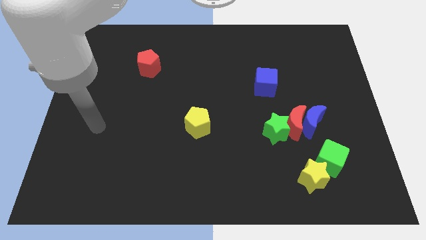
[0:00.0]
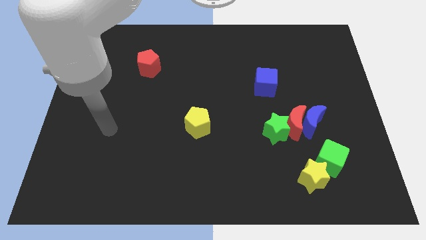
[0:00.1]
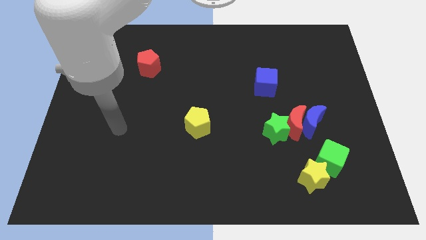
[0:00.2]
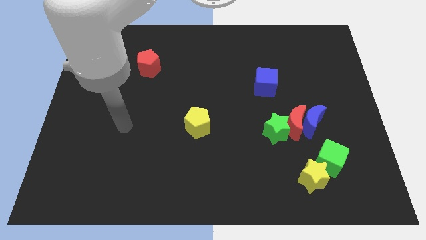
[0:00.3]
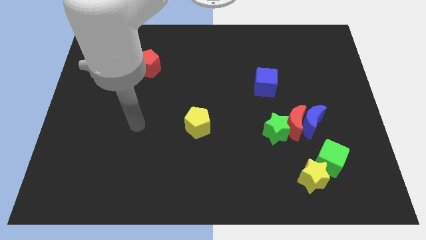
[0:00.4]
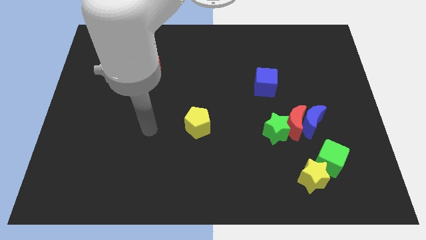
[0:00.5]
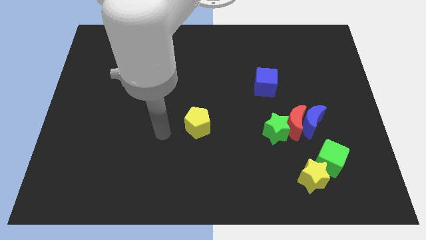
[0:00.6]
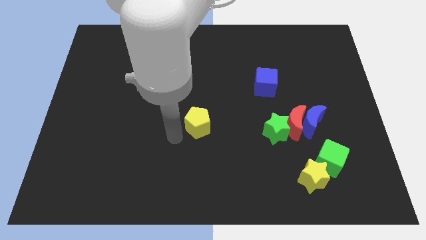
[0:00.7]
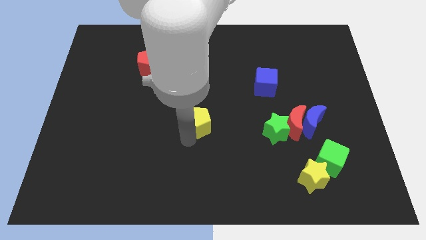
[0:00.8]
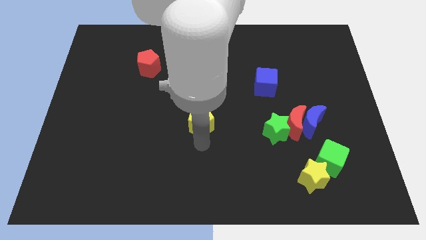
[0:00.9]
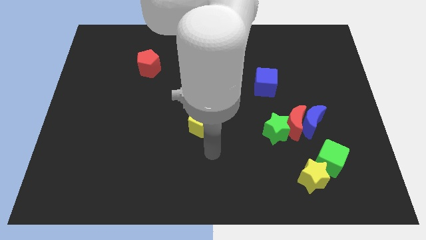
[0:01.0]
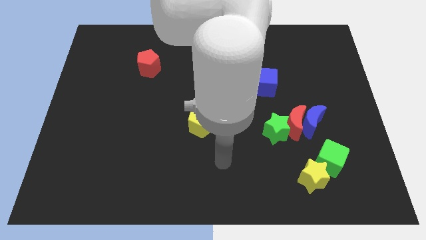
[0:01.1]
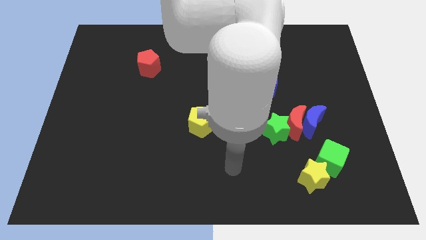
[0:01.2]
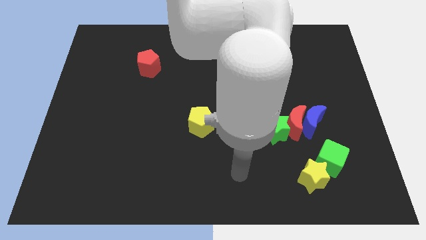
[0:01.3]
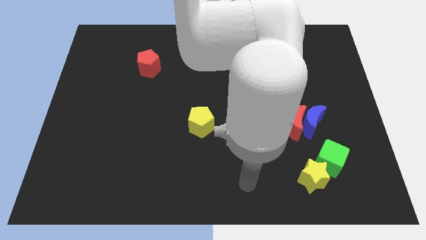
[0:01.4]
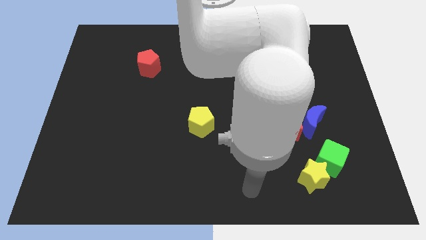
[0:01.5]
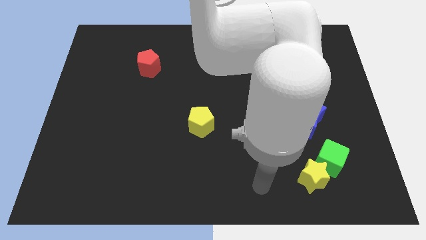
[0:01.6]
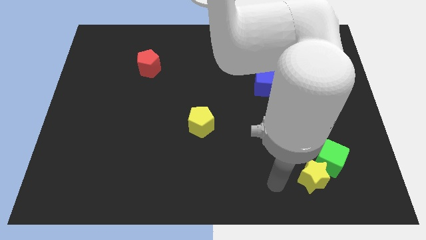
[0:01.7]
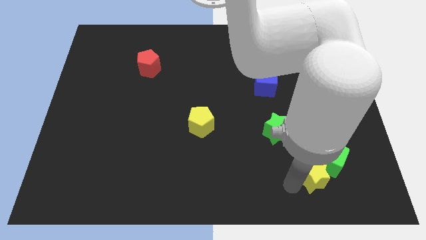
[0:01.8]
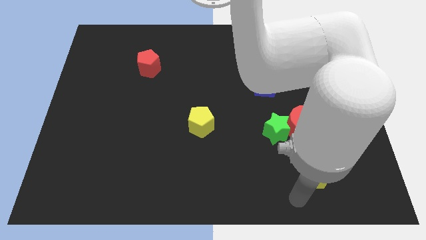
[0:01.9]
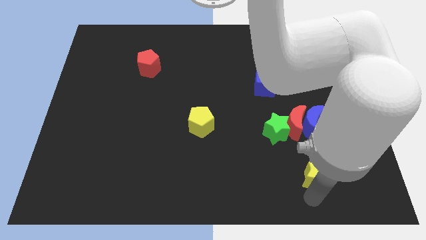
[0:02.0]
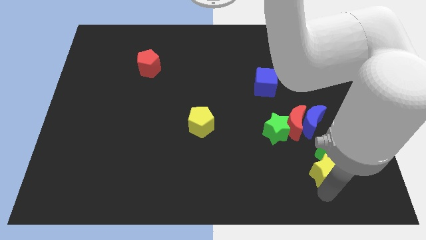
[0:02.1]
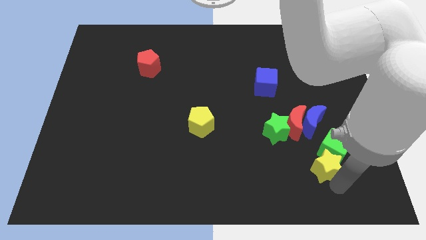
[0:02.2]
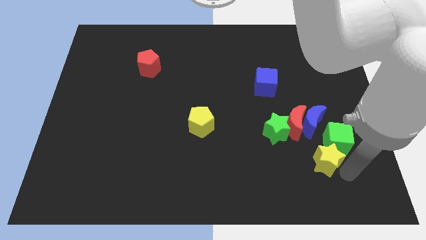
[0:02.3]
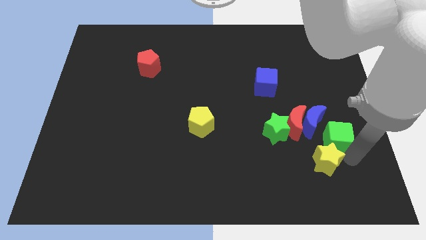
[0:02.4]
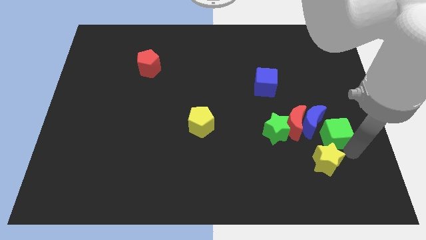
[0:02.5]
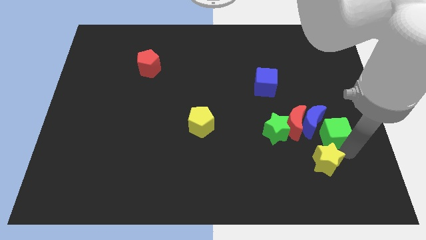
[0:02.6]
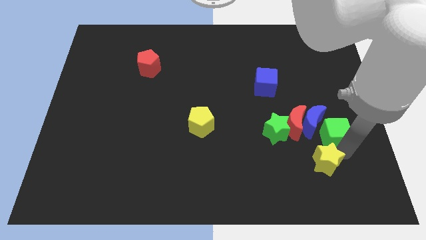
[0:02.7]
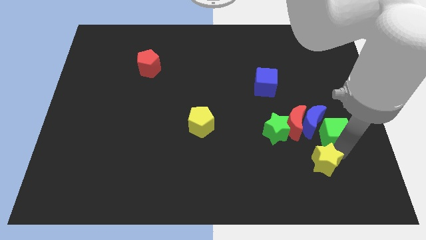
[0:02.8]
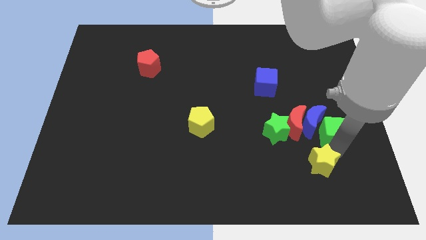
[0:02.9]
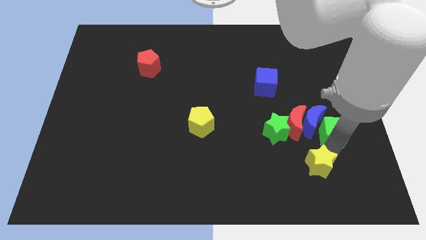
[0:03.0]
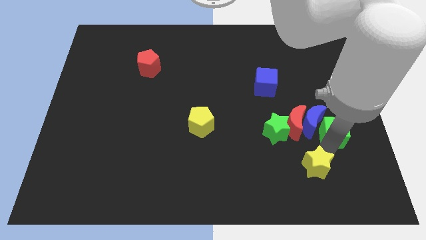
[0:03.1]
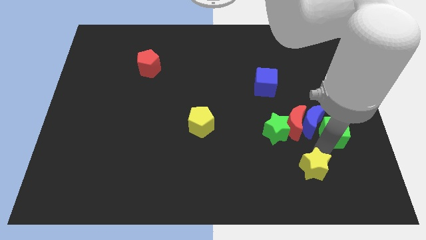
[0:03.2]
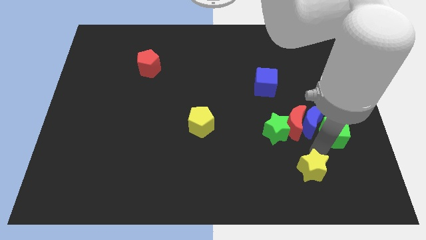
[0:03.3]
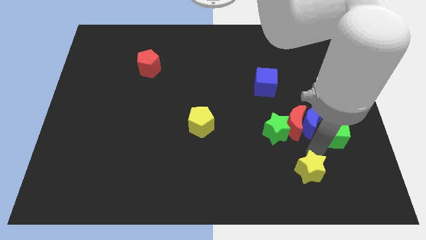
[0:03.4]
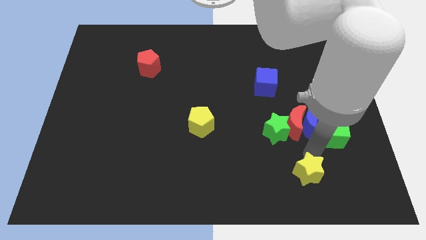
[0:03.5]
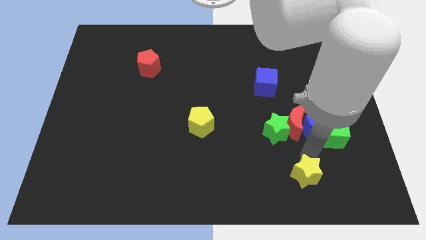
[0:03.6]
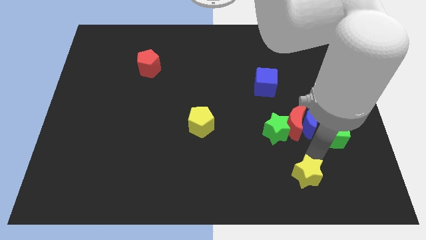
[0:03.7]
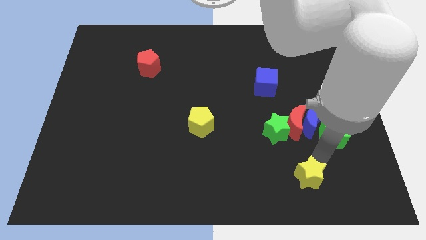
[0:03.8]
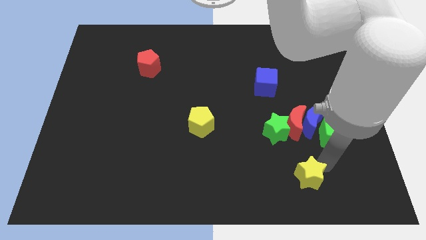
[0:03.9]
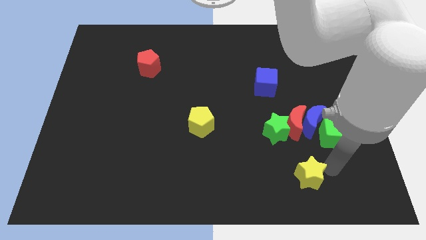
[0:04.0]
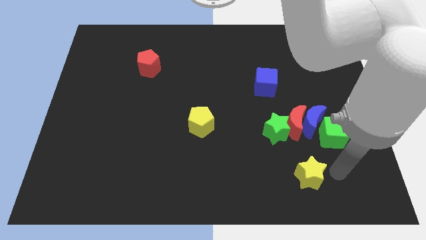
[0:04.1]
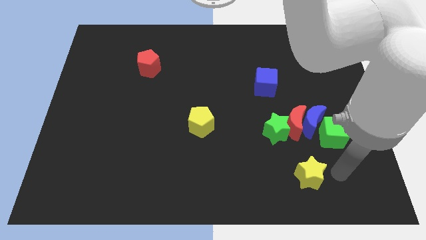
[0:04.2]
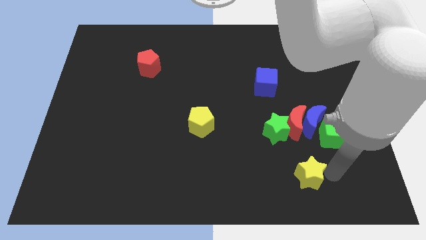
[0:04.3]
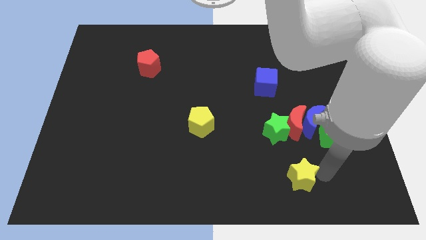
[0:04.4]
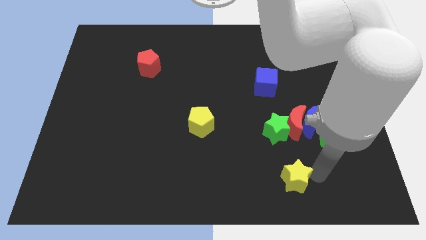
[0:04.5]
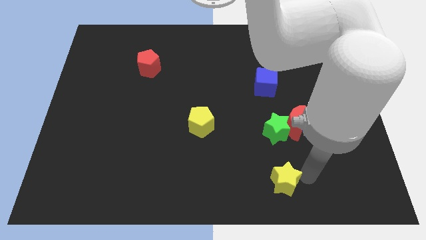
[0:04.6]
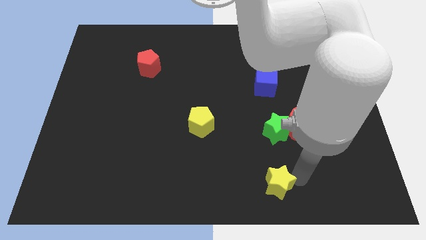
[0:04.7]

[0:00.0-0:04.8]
slide the yellow star a little to the left

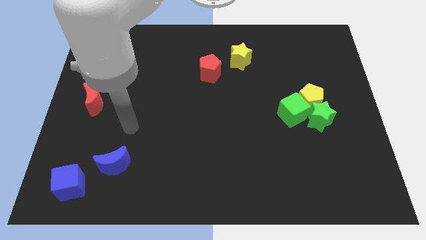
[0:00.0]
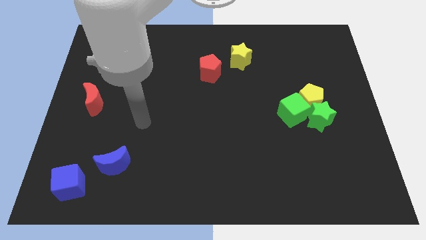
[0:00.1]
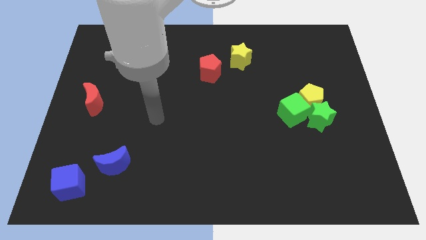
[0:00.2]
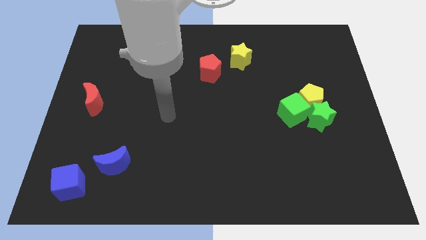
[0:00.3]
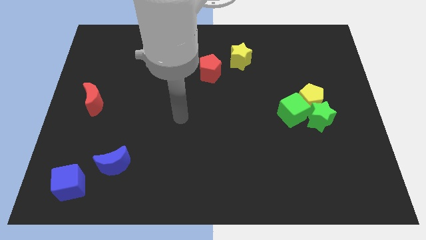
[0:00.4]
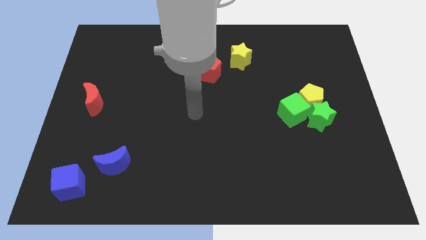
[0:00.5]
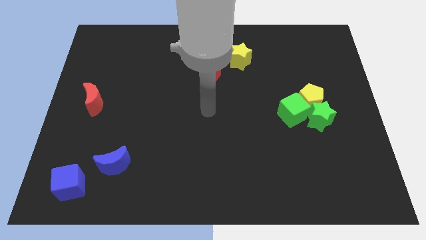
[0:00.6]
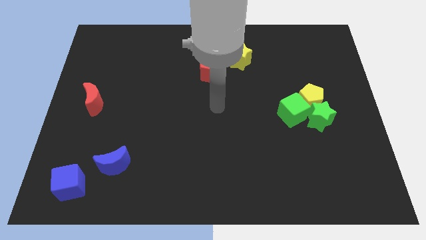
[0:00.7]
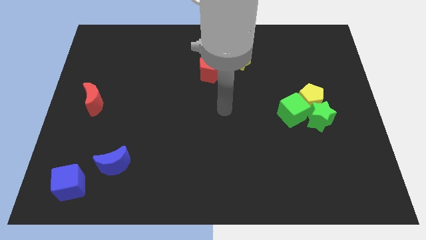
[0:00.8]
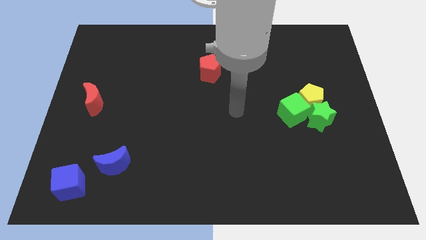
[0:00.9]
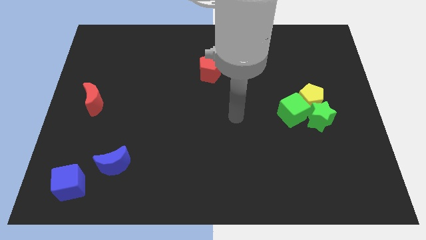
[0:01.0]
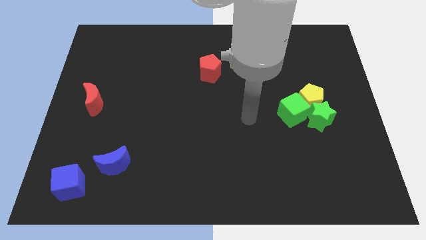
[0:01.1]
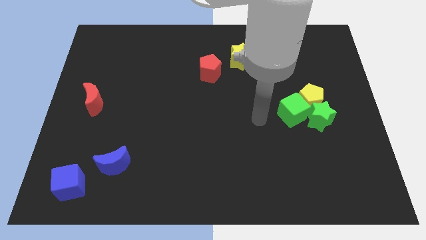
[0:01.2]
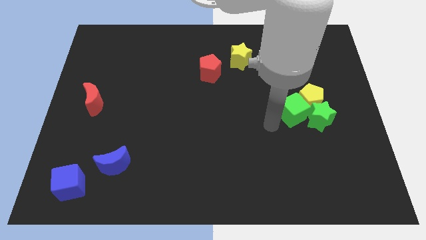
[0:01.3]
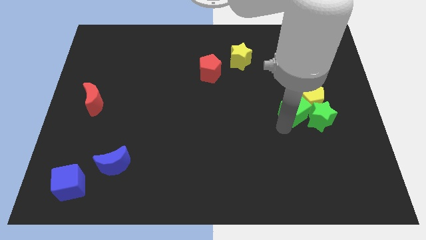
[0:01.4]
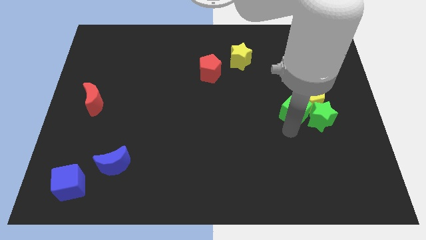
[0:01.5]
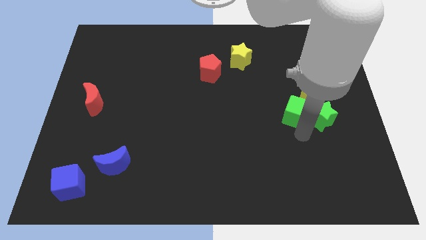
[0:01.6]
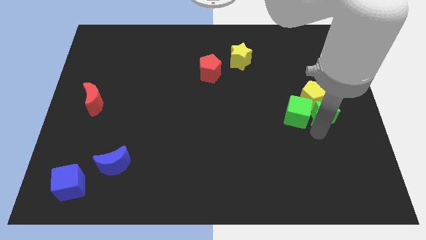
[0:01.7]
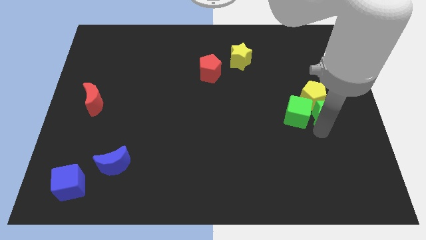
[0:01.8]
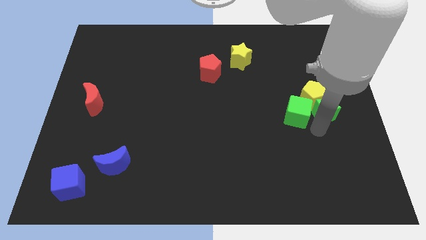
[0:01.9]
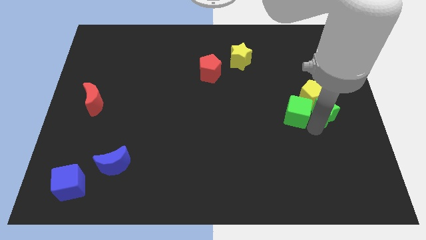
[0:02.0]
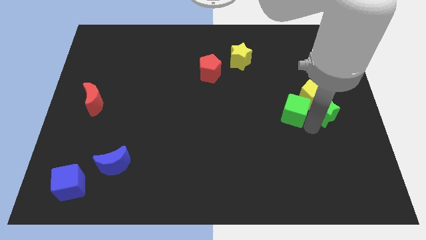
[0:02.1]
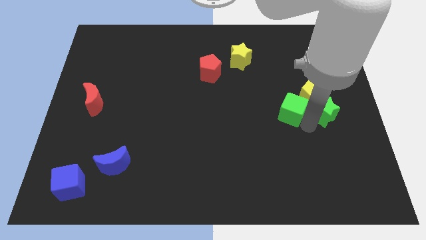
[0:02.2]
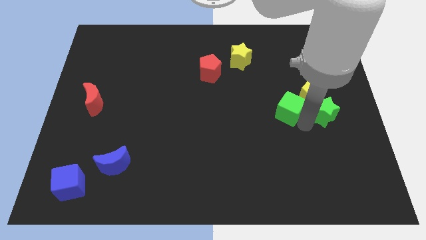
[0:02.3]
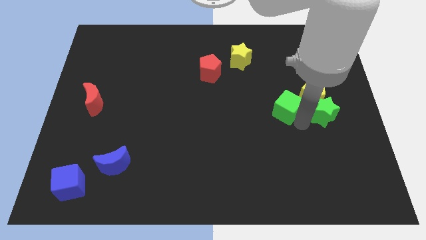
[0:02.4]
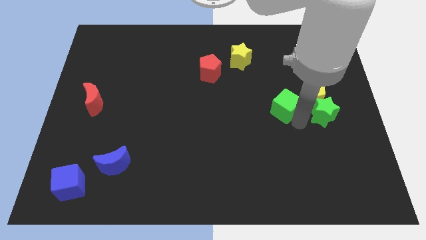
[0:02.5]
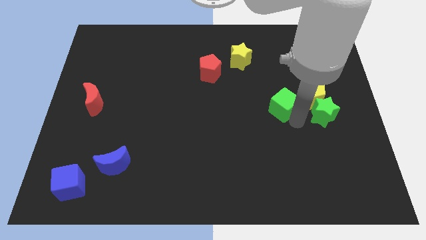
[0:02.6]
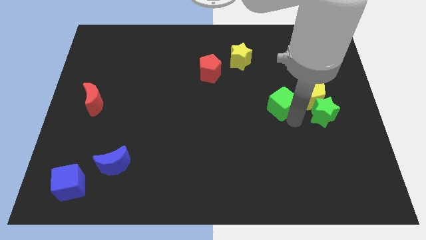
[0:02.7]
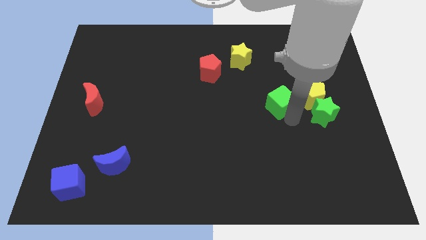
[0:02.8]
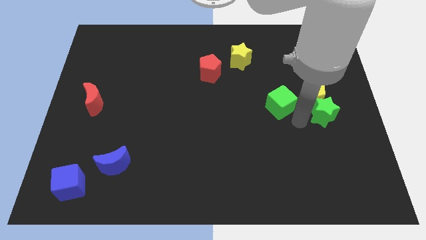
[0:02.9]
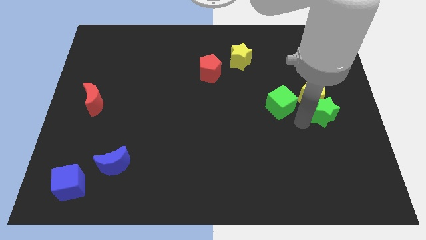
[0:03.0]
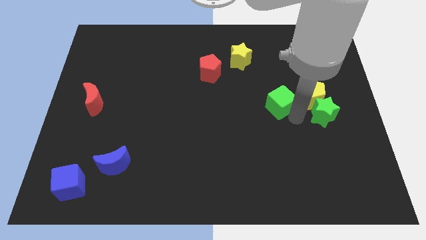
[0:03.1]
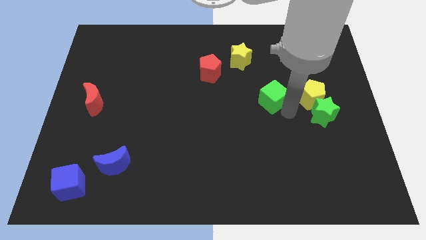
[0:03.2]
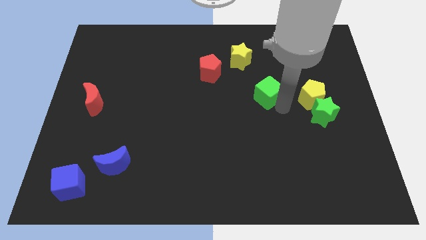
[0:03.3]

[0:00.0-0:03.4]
move the green cube somewhat upwards and to the left

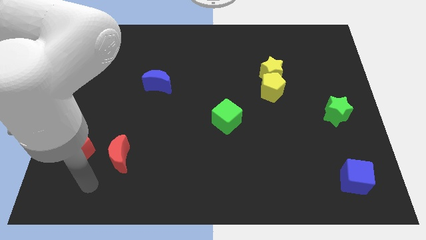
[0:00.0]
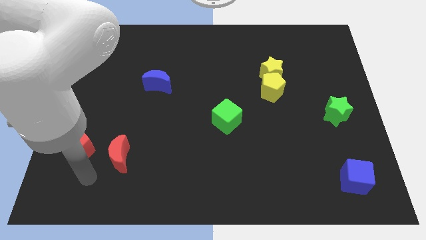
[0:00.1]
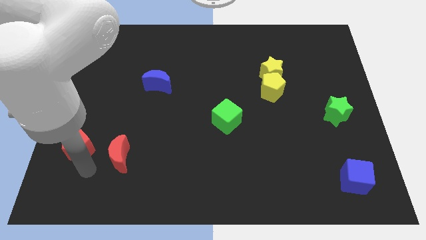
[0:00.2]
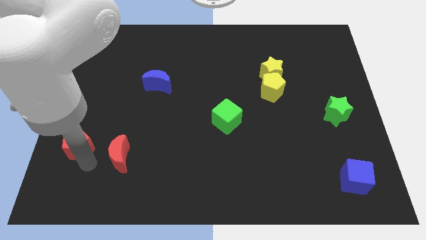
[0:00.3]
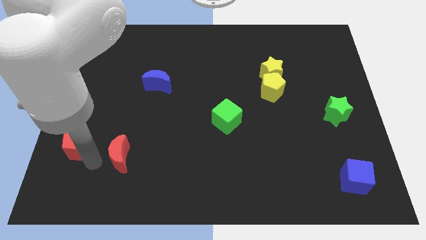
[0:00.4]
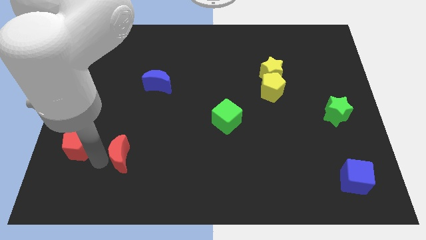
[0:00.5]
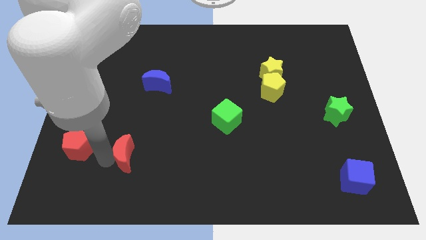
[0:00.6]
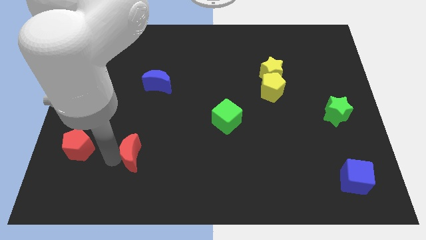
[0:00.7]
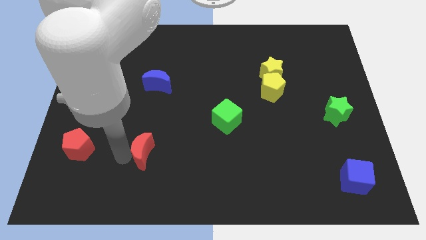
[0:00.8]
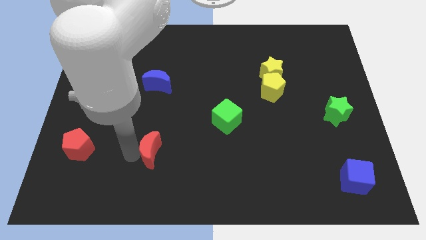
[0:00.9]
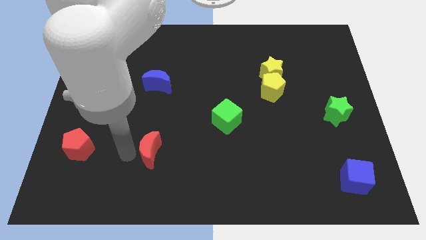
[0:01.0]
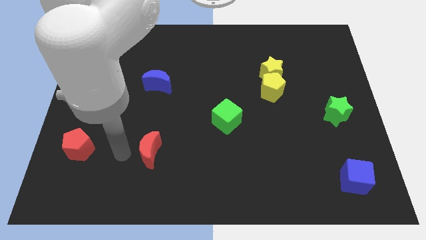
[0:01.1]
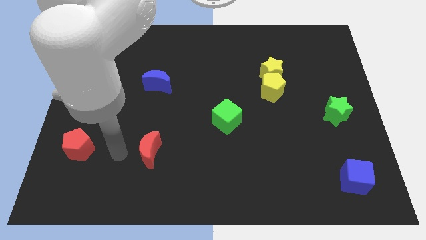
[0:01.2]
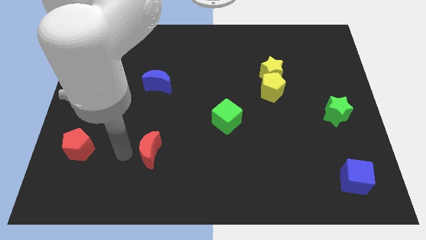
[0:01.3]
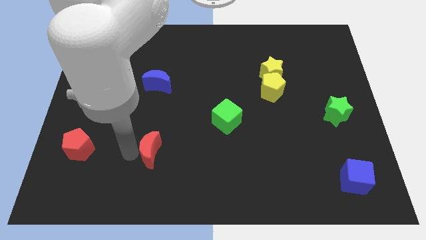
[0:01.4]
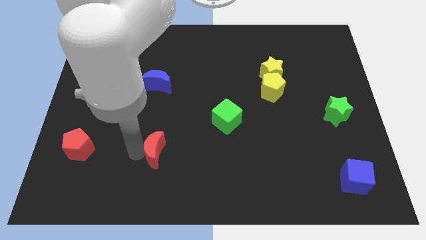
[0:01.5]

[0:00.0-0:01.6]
slide the red moon slightly to the right
